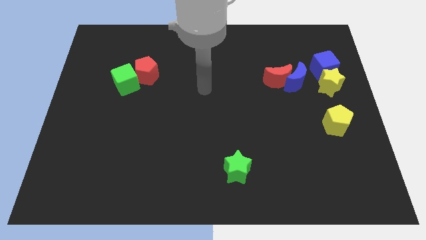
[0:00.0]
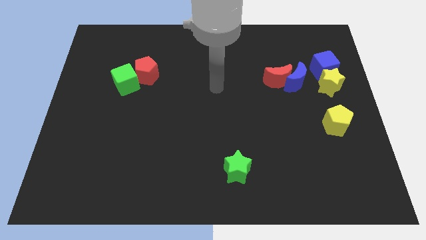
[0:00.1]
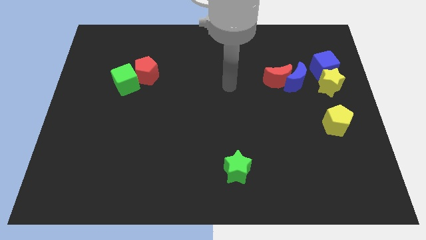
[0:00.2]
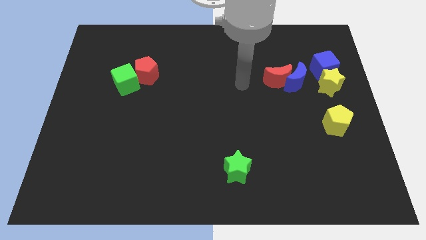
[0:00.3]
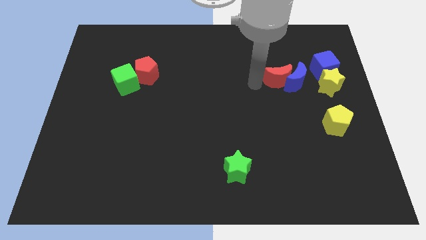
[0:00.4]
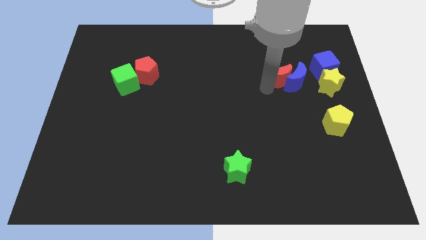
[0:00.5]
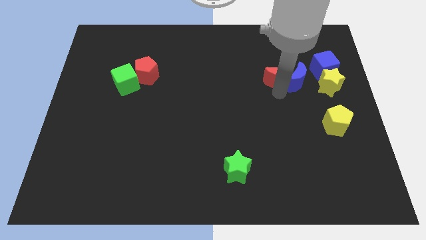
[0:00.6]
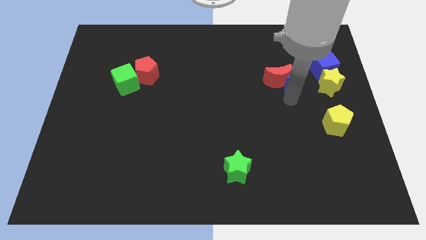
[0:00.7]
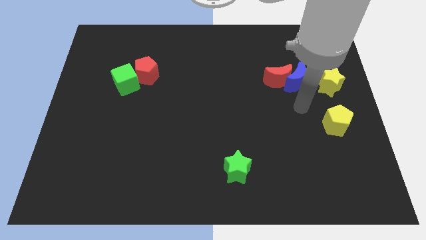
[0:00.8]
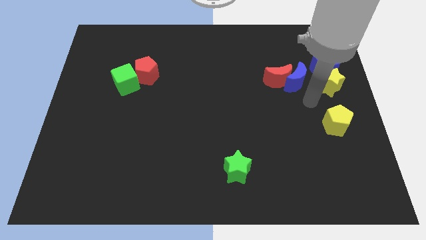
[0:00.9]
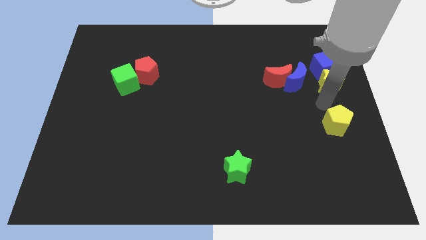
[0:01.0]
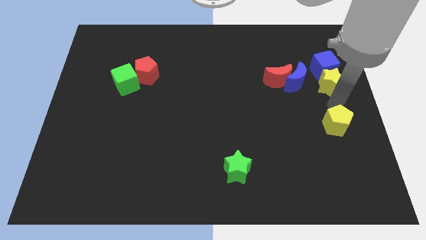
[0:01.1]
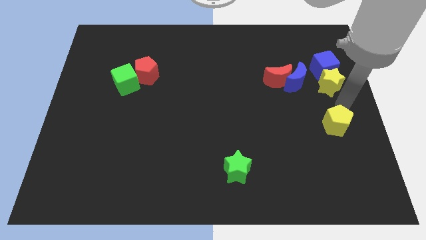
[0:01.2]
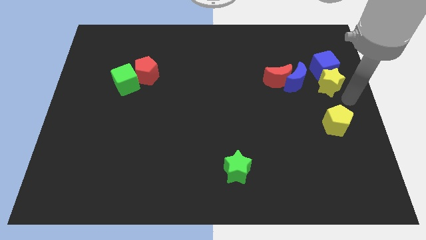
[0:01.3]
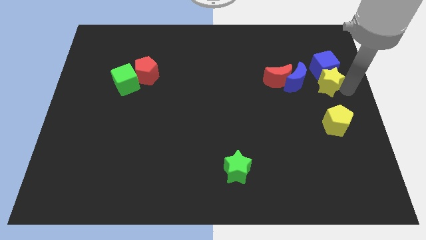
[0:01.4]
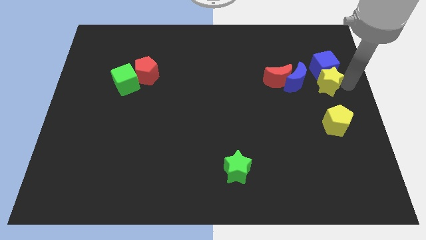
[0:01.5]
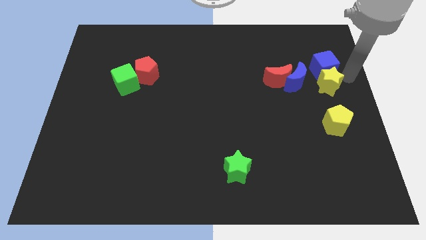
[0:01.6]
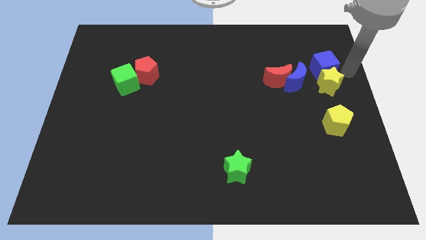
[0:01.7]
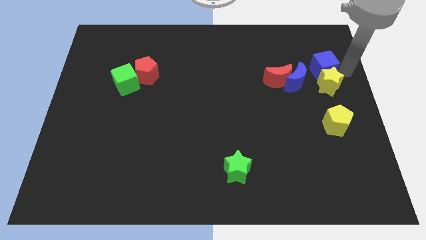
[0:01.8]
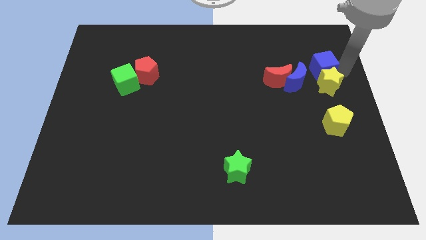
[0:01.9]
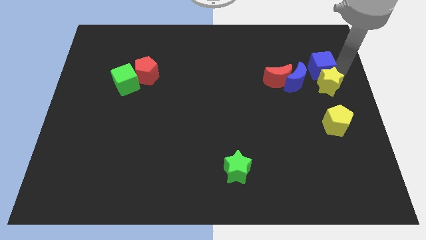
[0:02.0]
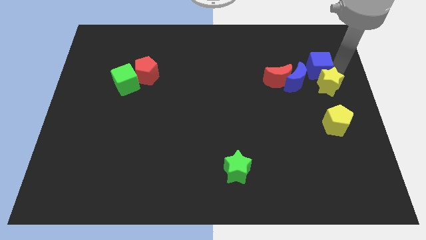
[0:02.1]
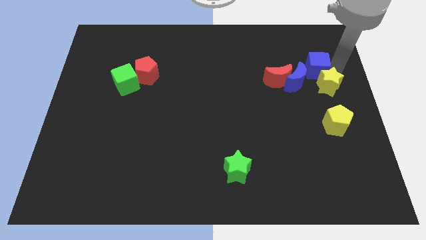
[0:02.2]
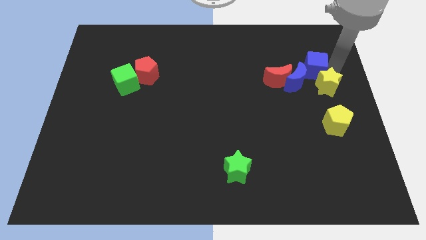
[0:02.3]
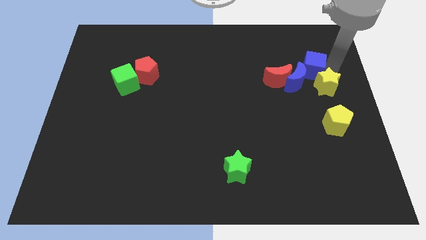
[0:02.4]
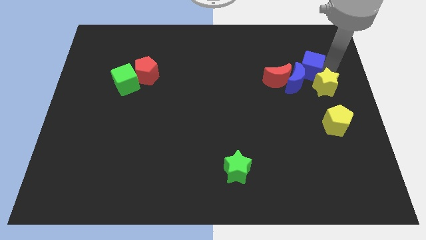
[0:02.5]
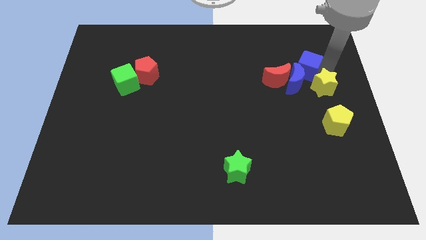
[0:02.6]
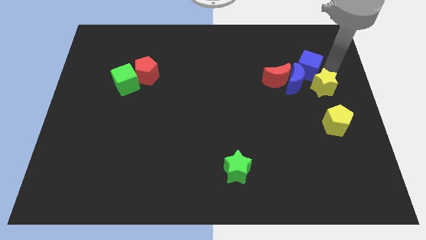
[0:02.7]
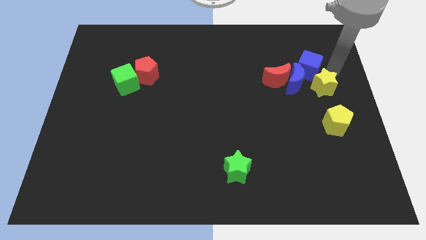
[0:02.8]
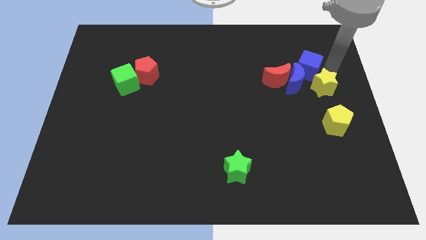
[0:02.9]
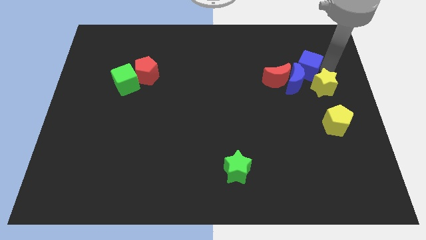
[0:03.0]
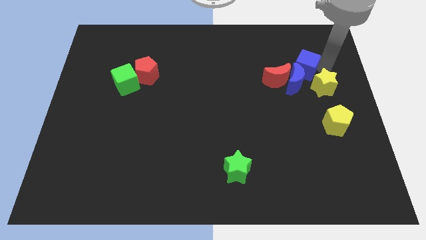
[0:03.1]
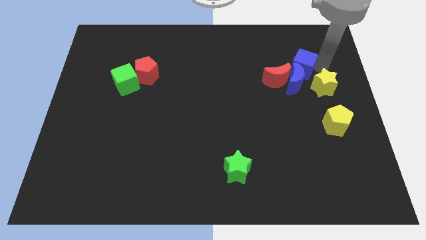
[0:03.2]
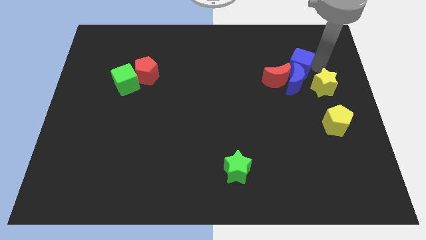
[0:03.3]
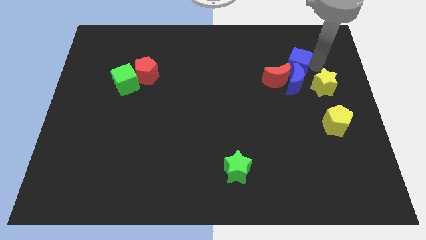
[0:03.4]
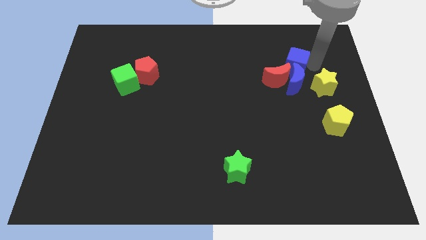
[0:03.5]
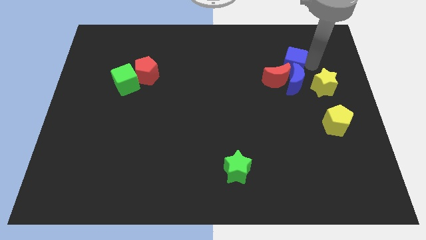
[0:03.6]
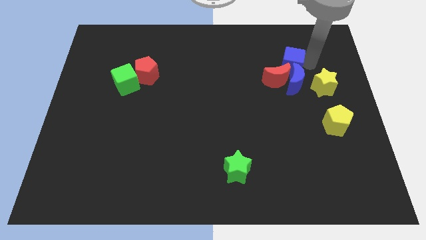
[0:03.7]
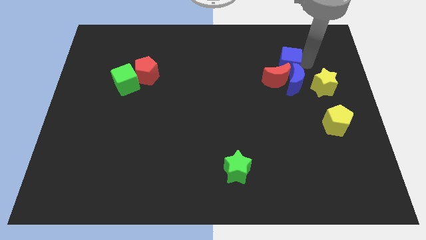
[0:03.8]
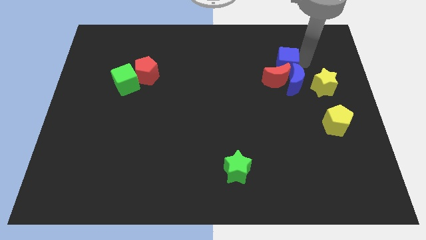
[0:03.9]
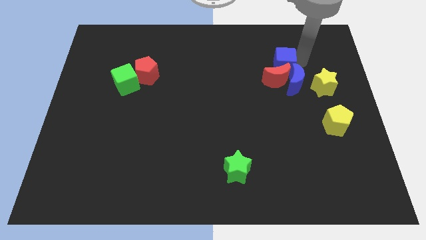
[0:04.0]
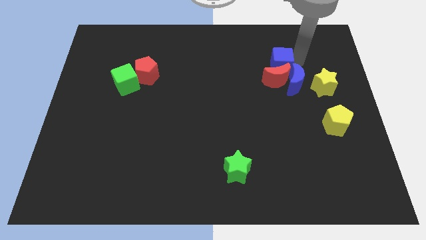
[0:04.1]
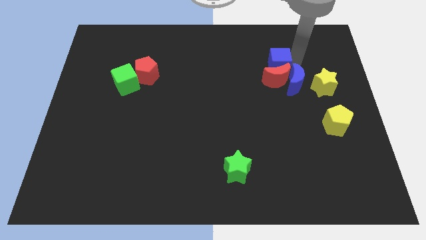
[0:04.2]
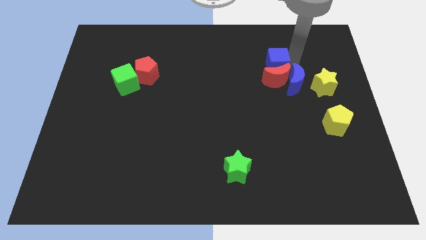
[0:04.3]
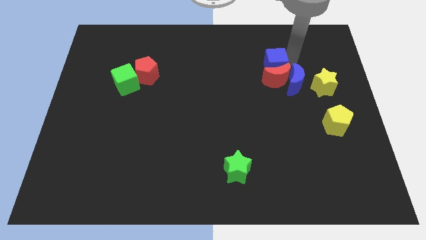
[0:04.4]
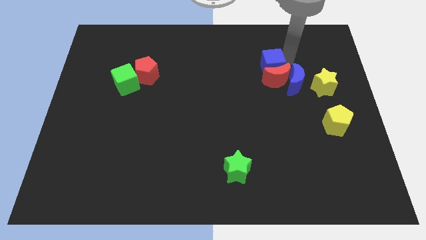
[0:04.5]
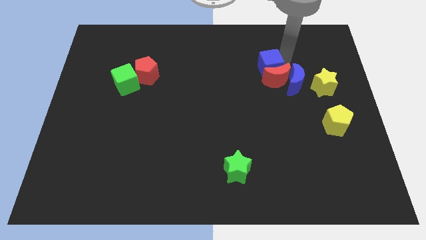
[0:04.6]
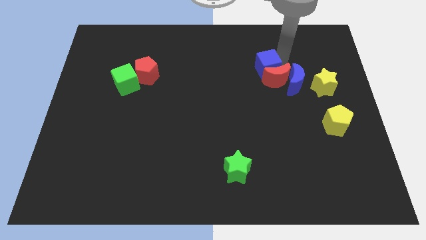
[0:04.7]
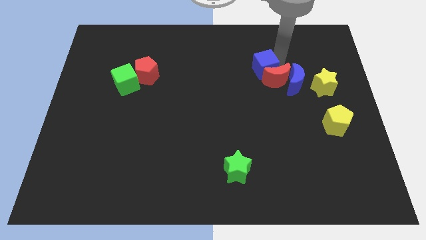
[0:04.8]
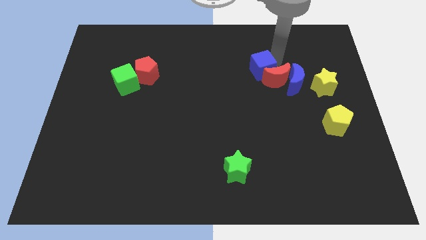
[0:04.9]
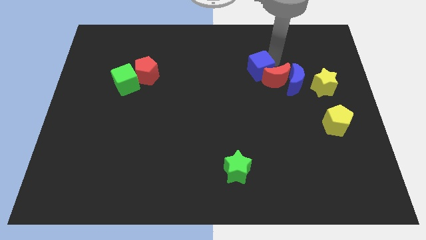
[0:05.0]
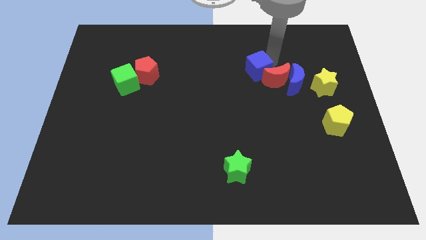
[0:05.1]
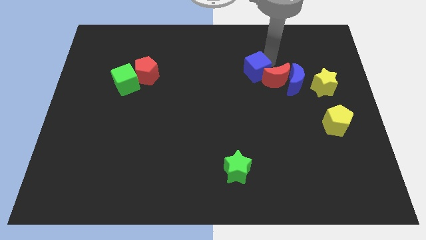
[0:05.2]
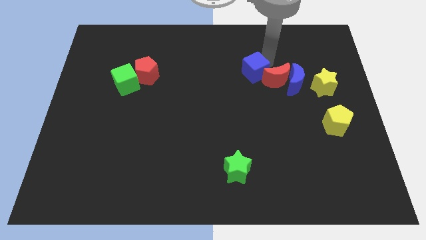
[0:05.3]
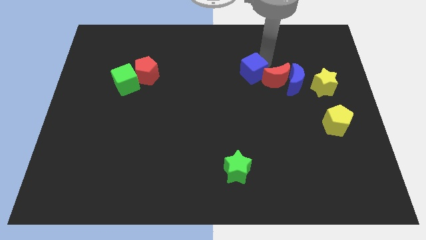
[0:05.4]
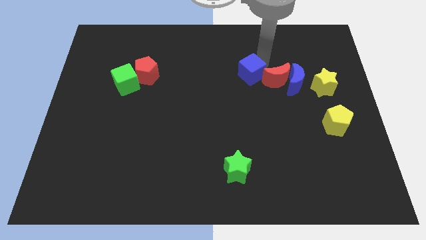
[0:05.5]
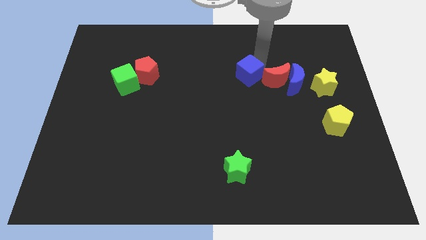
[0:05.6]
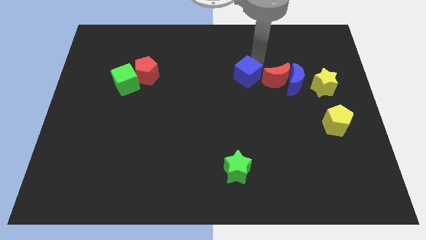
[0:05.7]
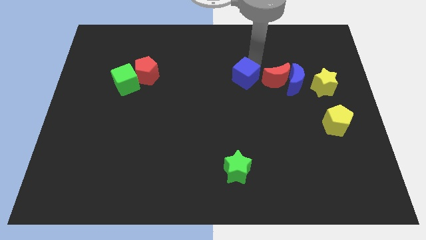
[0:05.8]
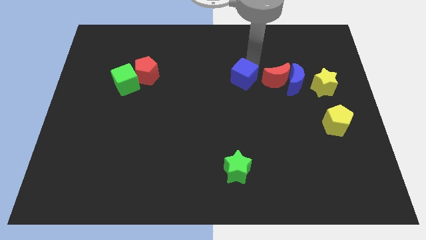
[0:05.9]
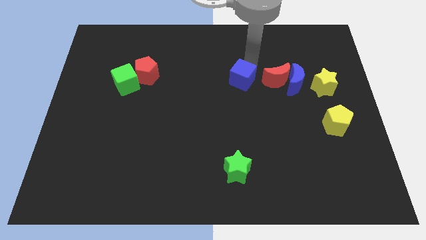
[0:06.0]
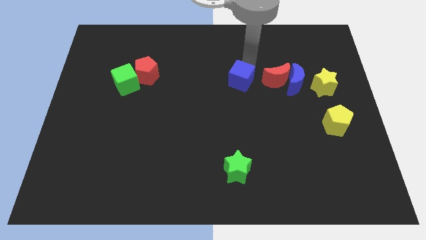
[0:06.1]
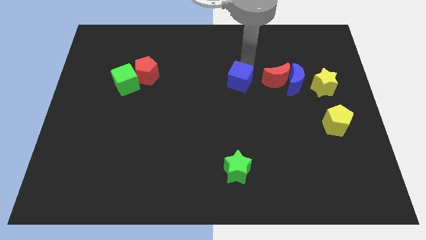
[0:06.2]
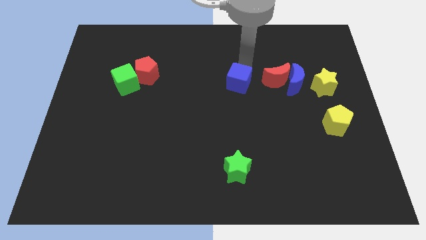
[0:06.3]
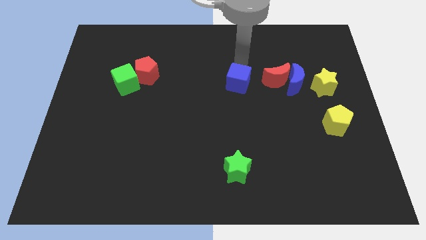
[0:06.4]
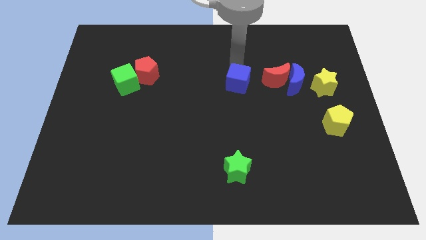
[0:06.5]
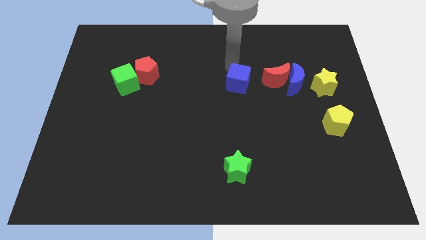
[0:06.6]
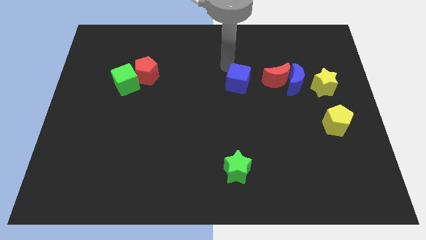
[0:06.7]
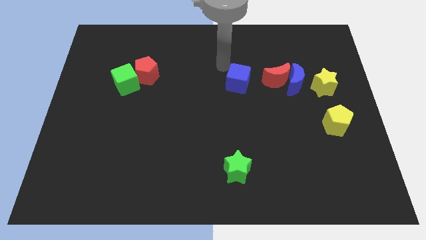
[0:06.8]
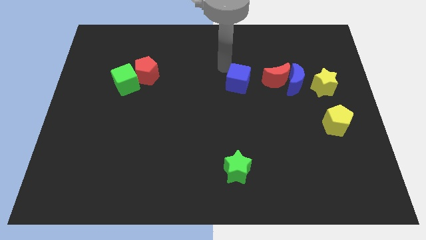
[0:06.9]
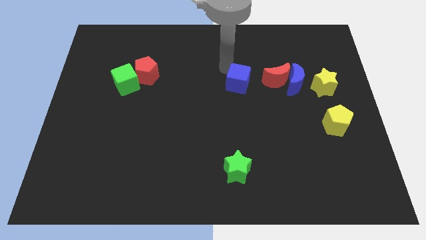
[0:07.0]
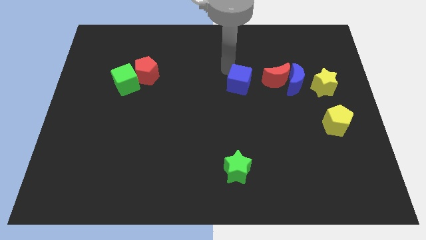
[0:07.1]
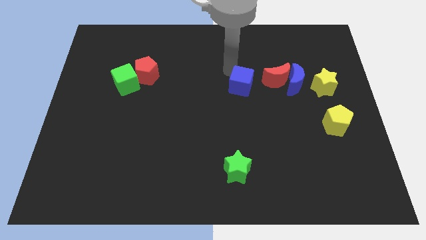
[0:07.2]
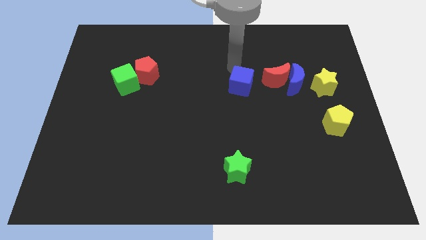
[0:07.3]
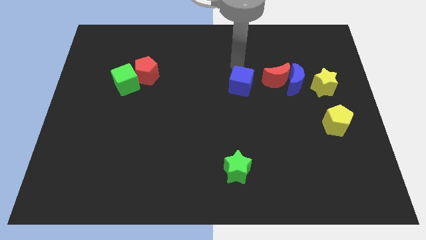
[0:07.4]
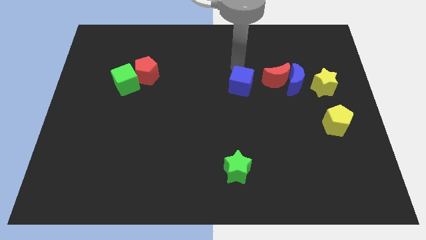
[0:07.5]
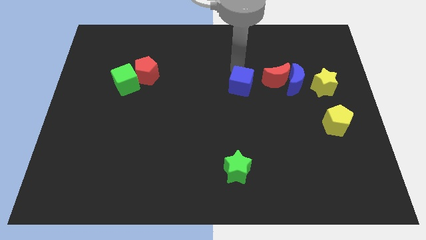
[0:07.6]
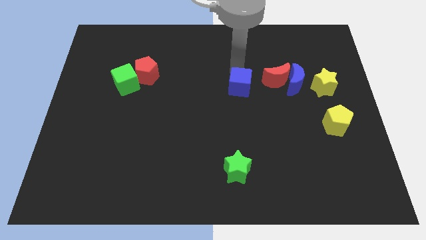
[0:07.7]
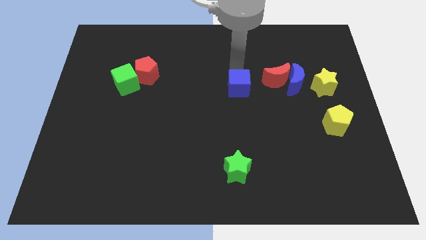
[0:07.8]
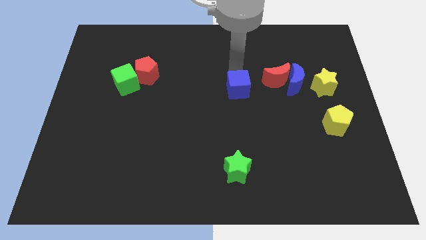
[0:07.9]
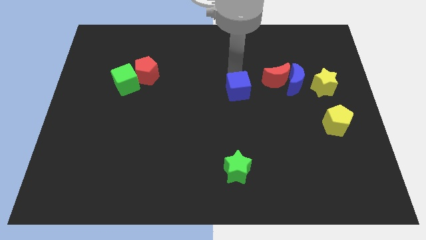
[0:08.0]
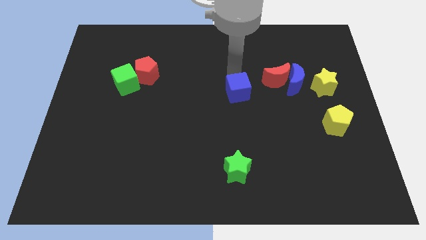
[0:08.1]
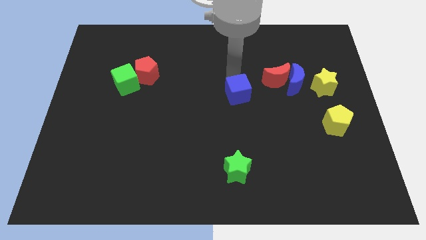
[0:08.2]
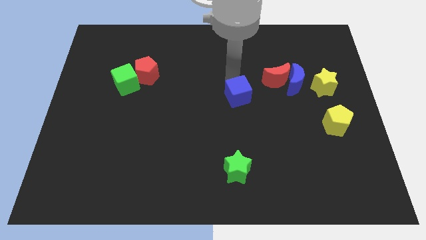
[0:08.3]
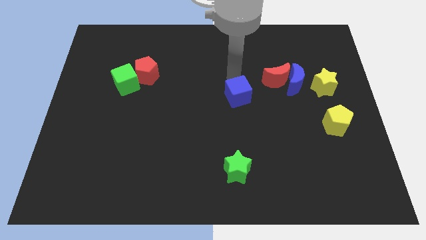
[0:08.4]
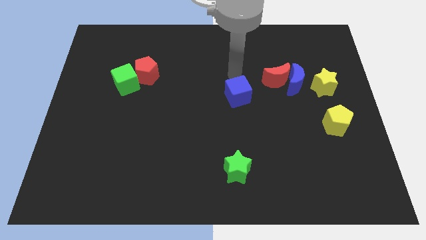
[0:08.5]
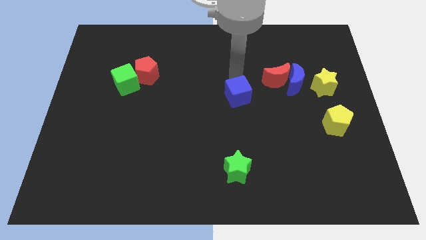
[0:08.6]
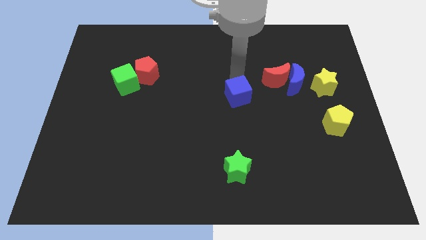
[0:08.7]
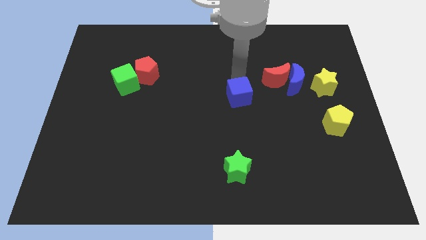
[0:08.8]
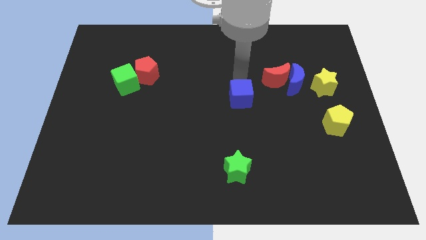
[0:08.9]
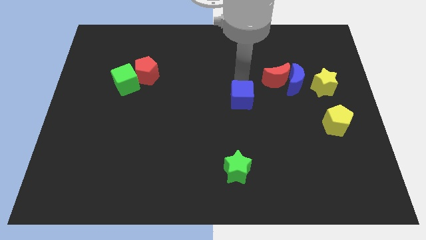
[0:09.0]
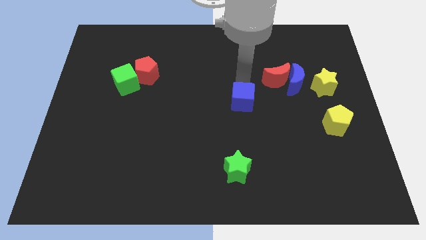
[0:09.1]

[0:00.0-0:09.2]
move the blue cube diagonally downwards and left
